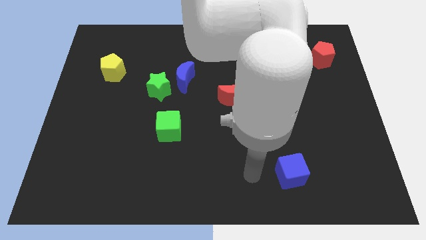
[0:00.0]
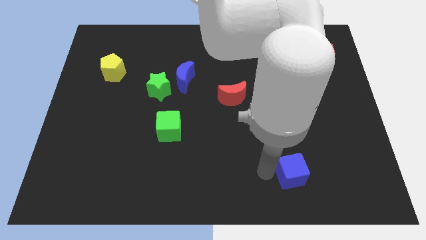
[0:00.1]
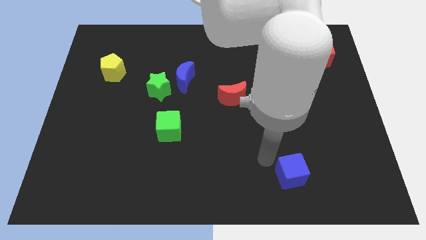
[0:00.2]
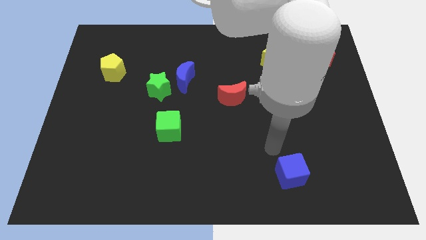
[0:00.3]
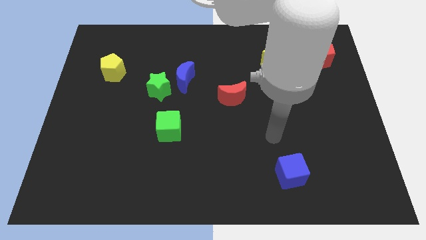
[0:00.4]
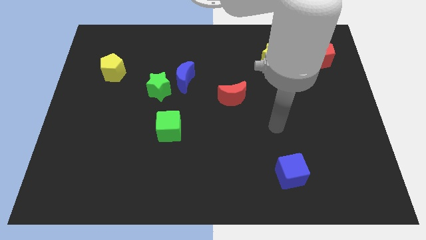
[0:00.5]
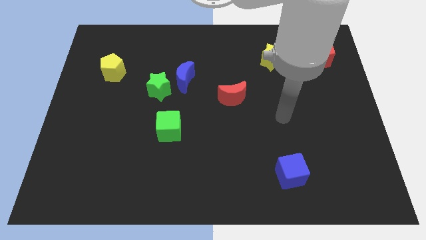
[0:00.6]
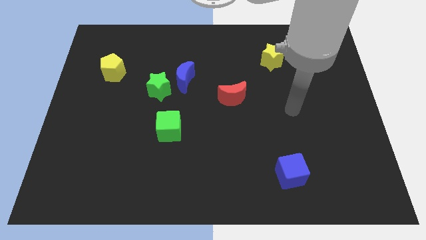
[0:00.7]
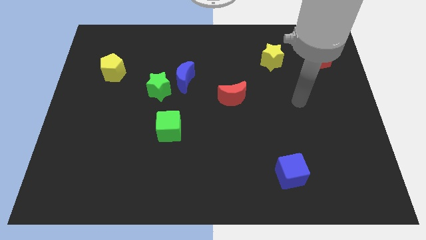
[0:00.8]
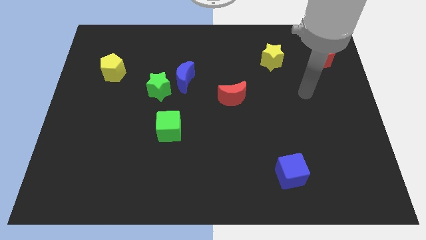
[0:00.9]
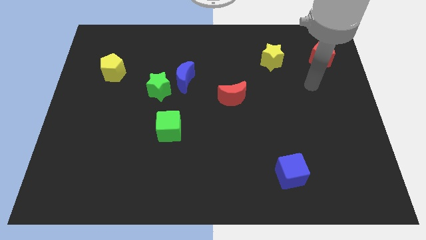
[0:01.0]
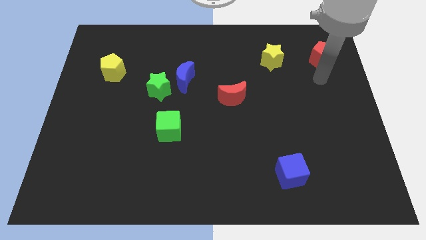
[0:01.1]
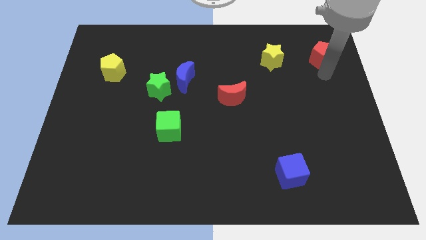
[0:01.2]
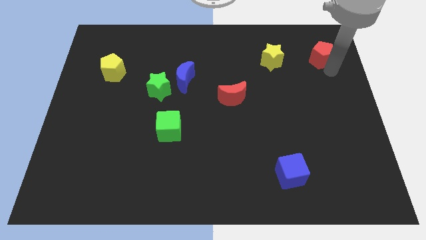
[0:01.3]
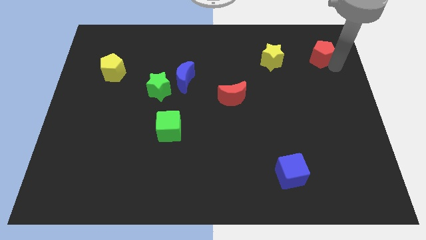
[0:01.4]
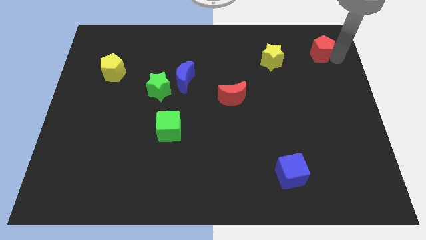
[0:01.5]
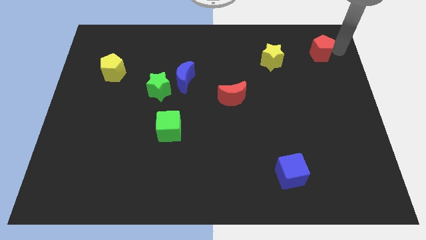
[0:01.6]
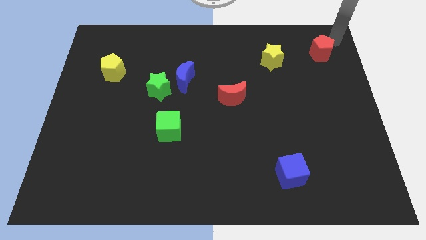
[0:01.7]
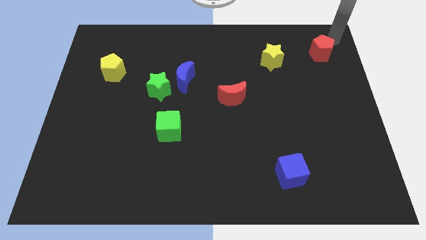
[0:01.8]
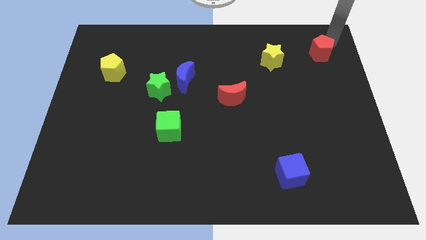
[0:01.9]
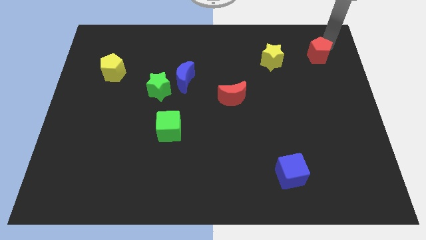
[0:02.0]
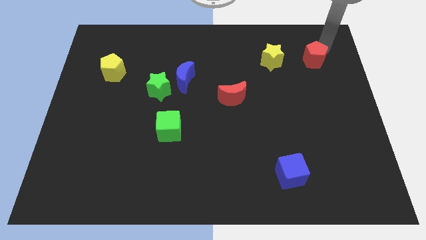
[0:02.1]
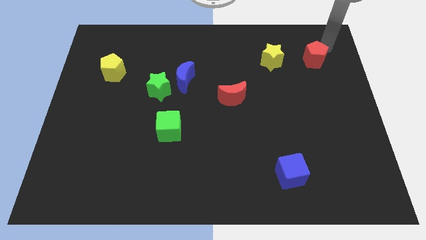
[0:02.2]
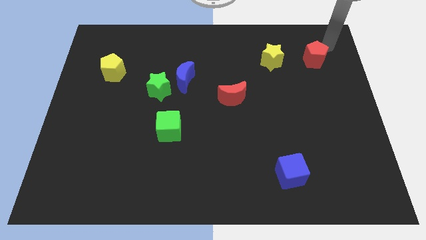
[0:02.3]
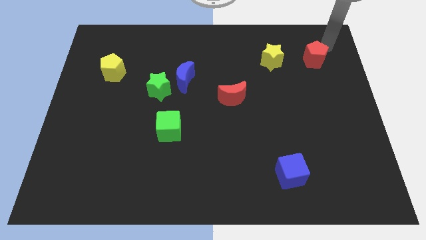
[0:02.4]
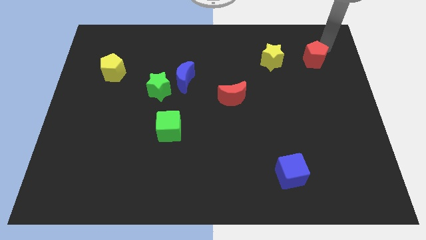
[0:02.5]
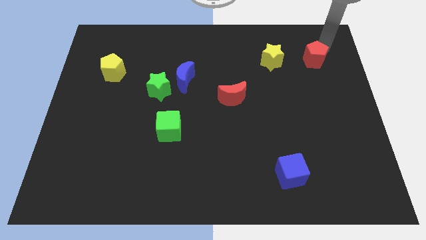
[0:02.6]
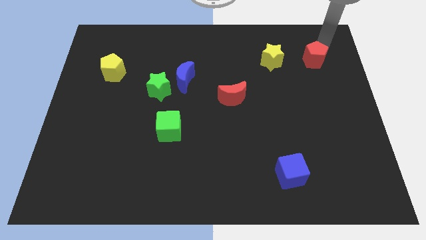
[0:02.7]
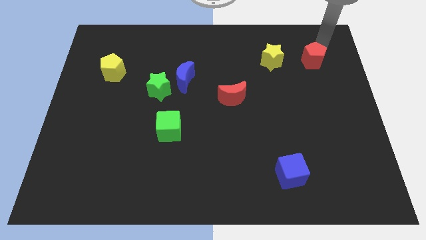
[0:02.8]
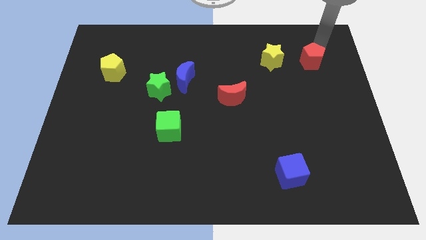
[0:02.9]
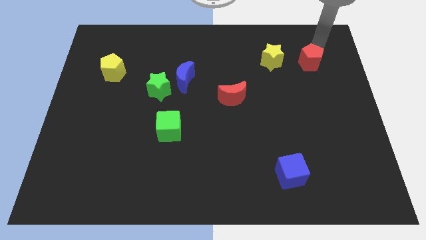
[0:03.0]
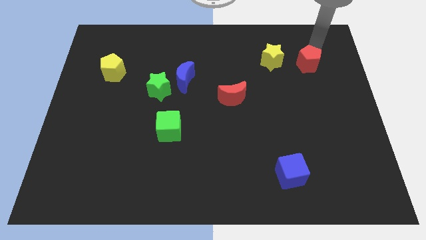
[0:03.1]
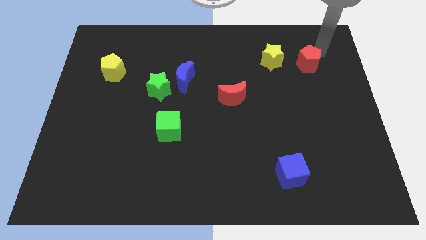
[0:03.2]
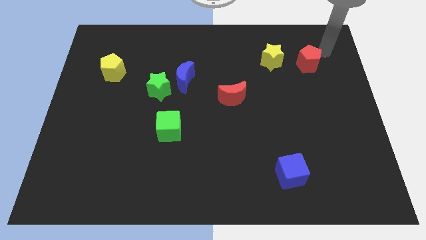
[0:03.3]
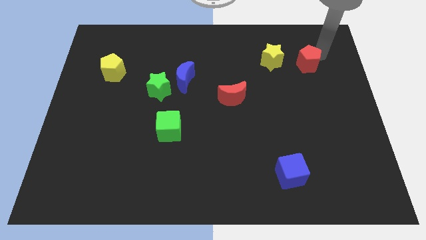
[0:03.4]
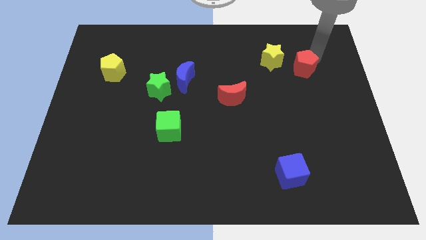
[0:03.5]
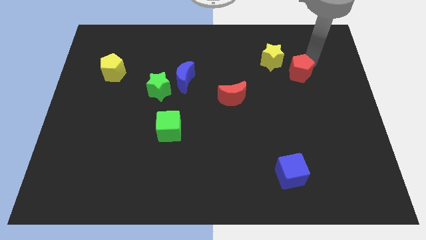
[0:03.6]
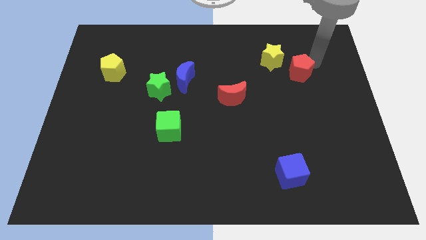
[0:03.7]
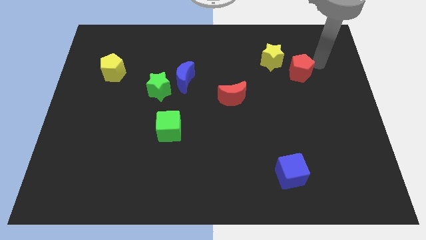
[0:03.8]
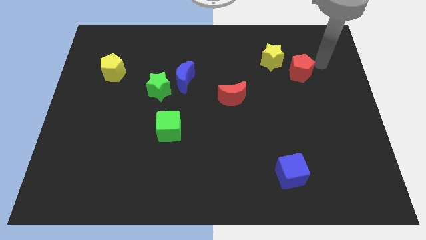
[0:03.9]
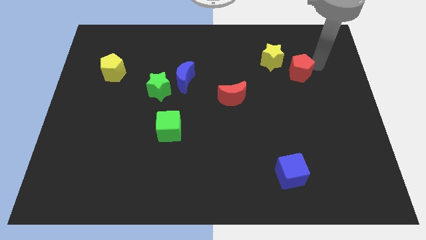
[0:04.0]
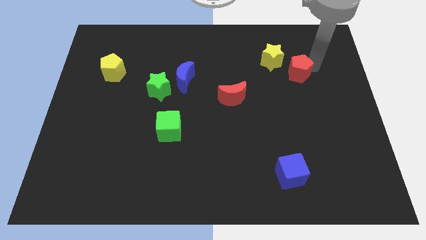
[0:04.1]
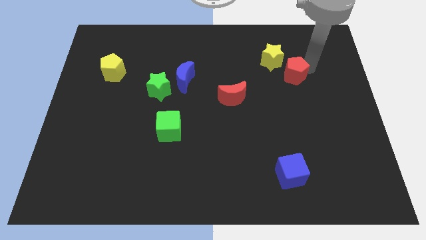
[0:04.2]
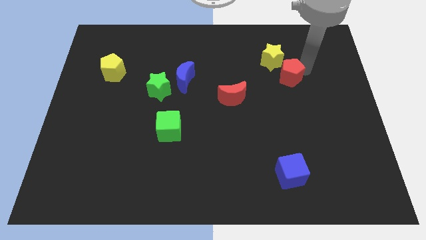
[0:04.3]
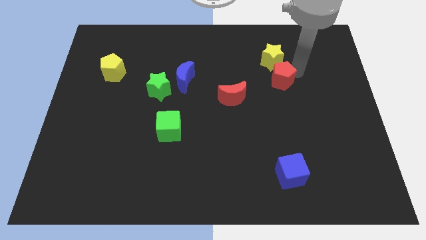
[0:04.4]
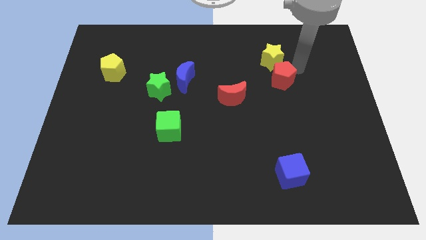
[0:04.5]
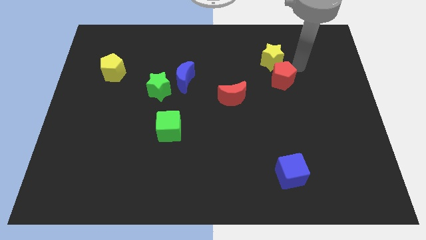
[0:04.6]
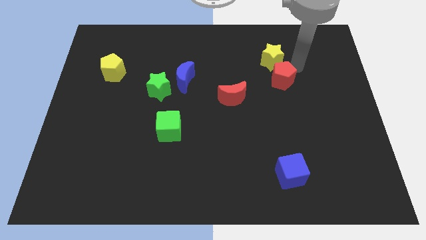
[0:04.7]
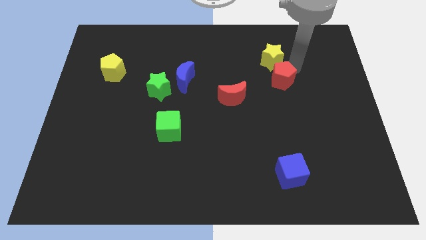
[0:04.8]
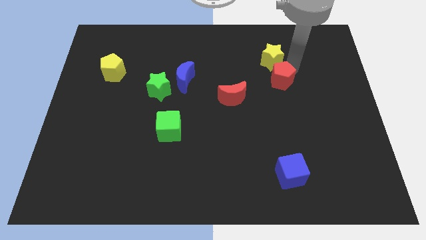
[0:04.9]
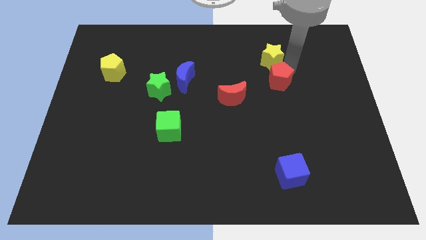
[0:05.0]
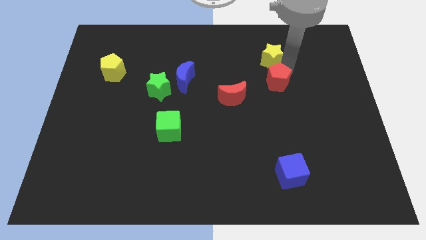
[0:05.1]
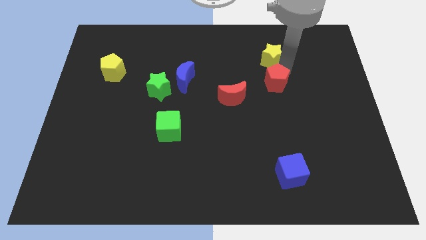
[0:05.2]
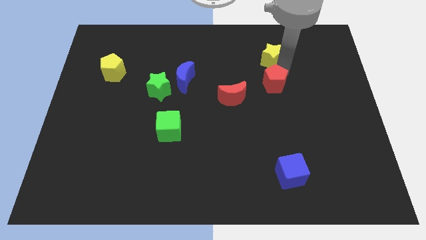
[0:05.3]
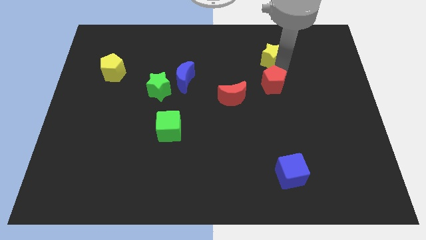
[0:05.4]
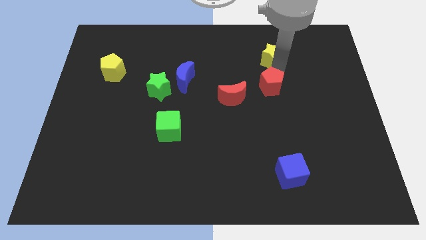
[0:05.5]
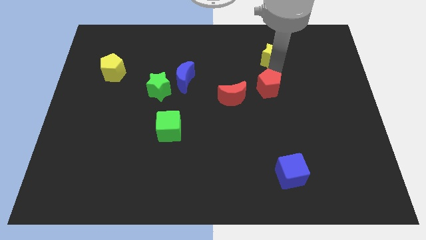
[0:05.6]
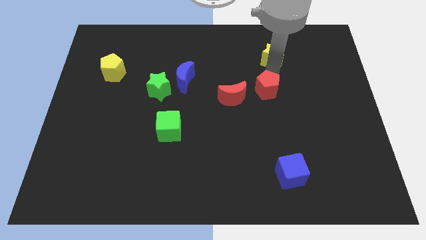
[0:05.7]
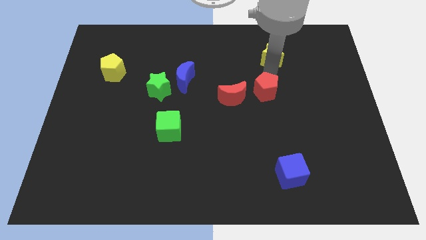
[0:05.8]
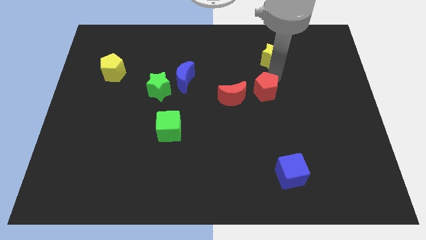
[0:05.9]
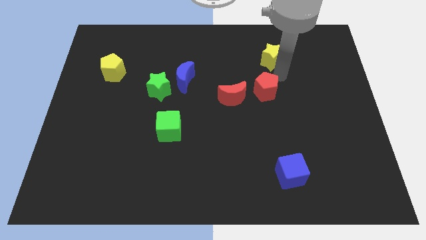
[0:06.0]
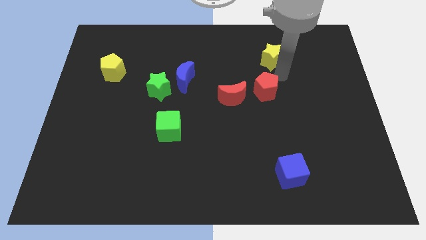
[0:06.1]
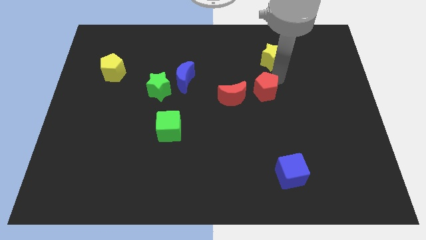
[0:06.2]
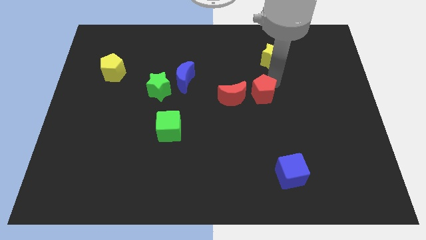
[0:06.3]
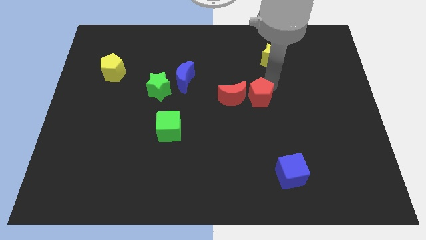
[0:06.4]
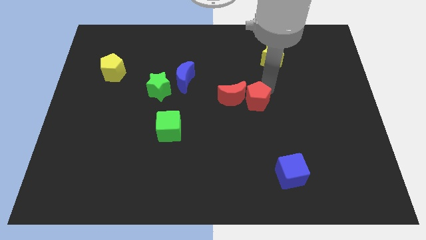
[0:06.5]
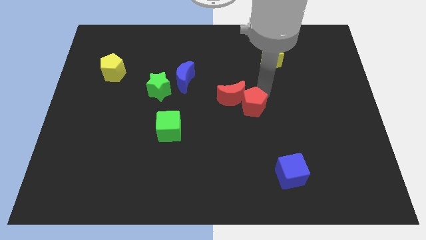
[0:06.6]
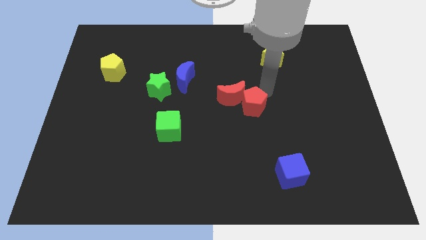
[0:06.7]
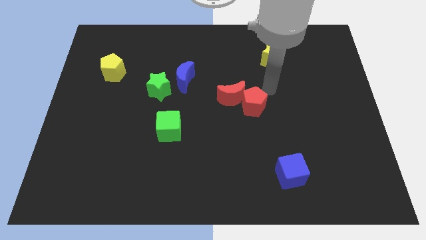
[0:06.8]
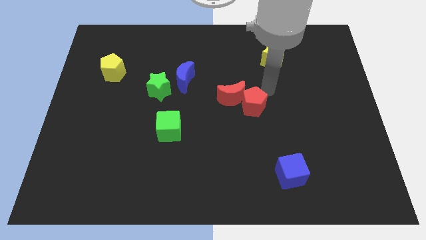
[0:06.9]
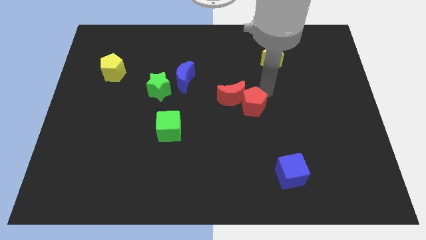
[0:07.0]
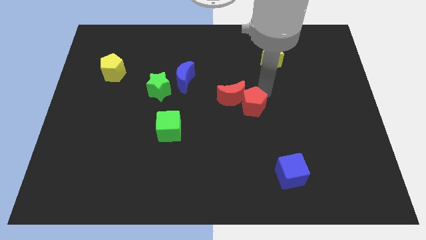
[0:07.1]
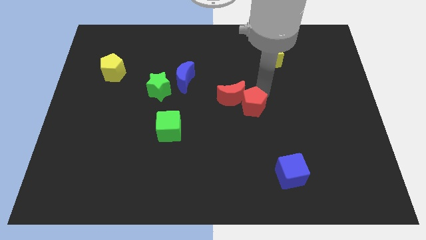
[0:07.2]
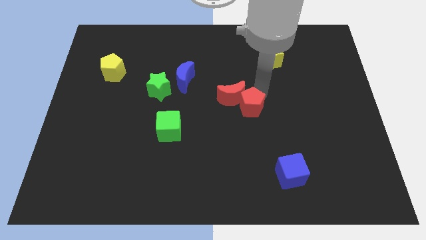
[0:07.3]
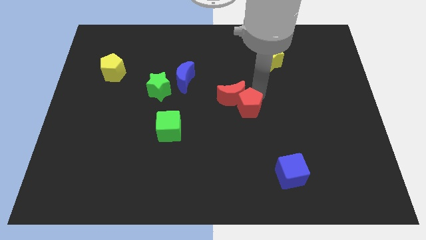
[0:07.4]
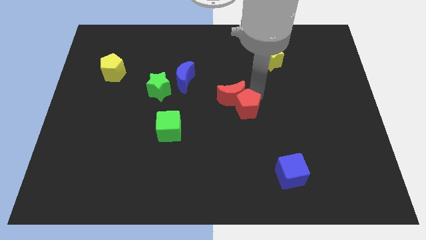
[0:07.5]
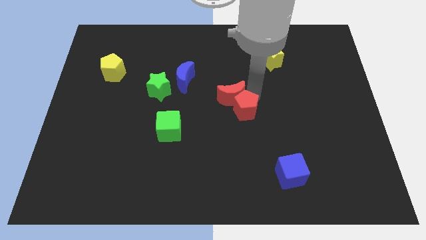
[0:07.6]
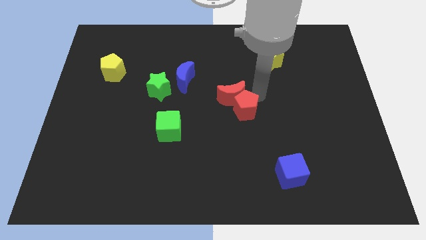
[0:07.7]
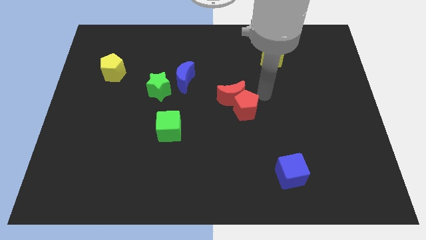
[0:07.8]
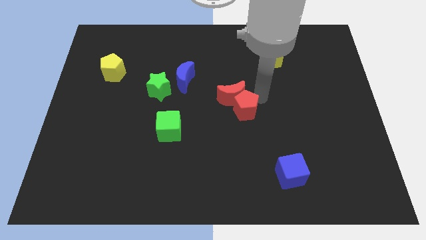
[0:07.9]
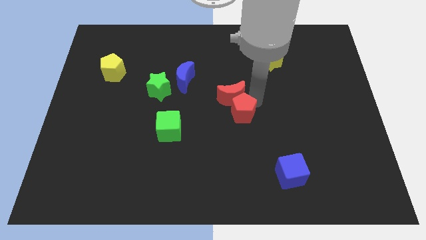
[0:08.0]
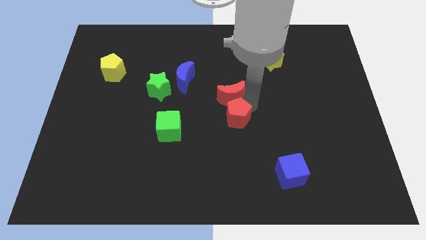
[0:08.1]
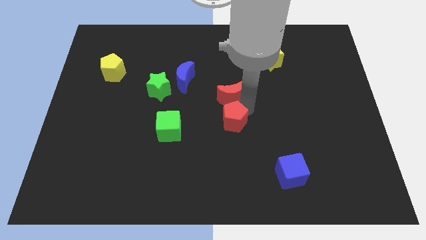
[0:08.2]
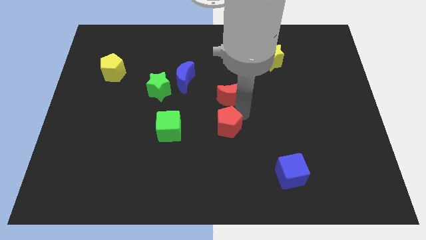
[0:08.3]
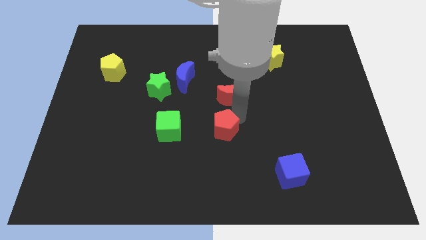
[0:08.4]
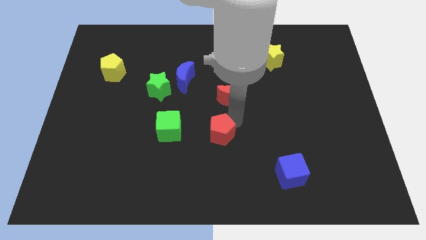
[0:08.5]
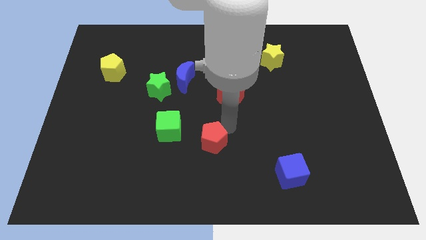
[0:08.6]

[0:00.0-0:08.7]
slide the red pentagon diagonally down and to the right of the green cube
